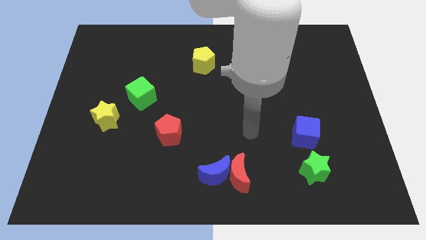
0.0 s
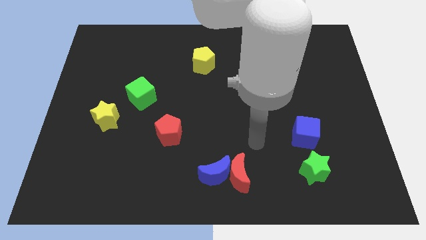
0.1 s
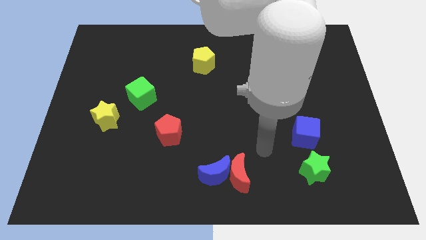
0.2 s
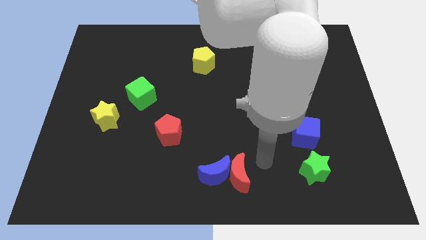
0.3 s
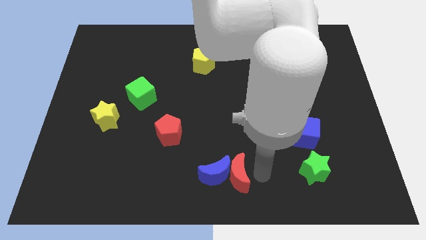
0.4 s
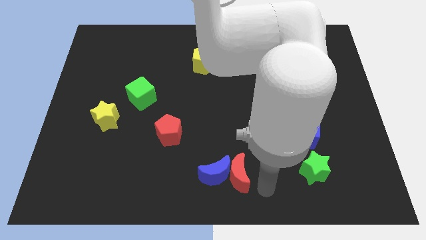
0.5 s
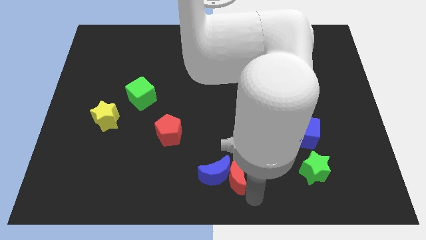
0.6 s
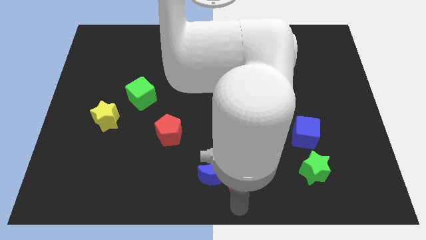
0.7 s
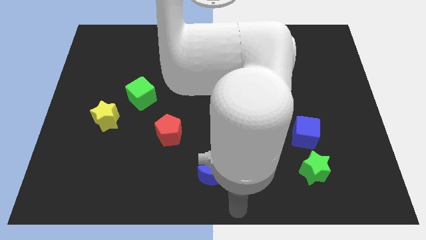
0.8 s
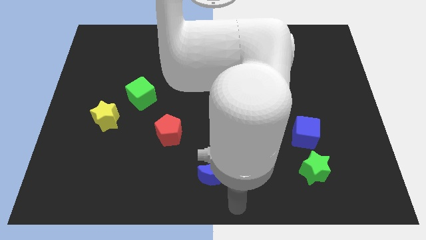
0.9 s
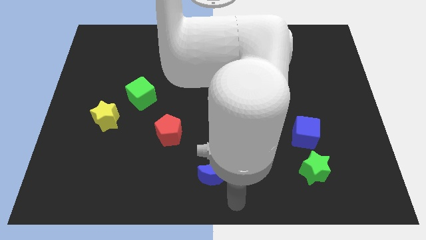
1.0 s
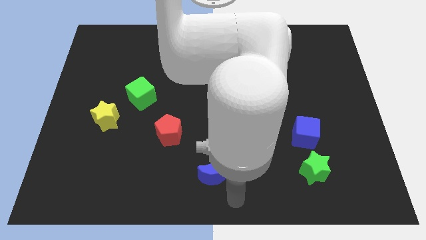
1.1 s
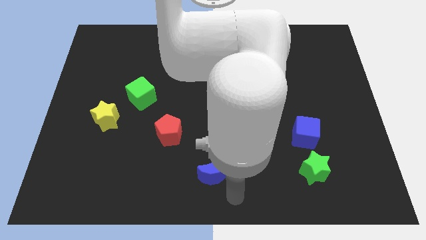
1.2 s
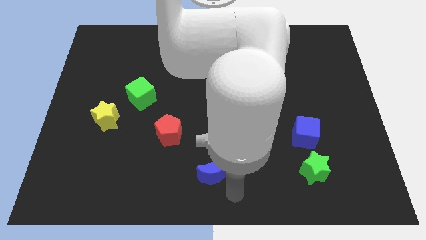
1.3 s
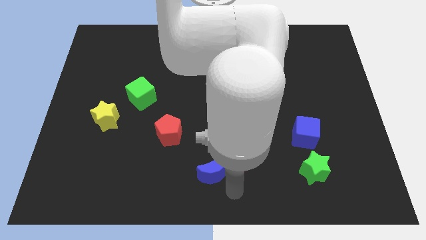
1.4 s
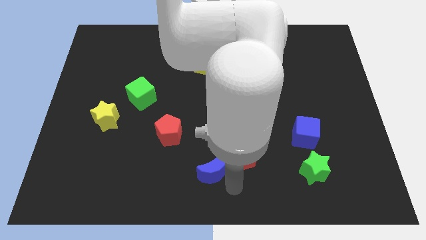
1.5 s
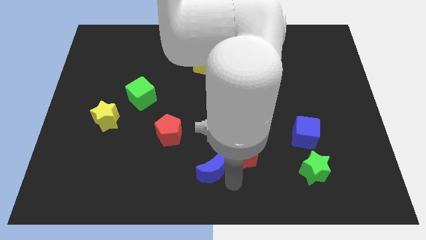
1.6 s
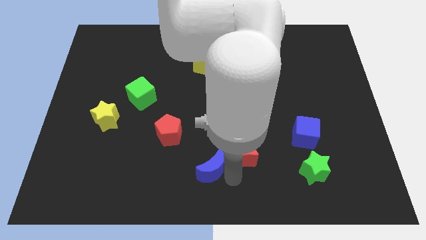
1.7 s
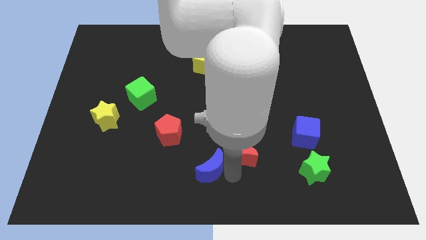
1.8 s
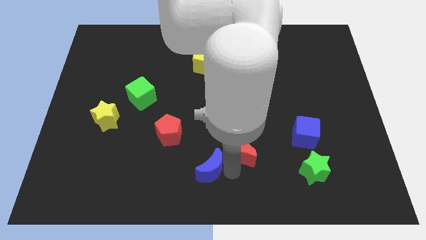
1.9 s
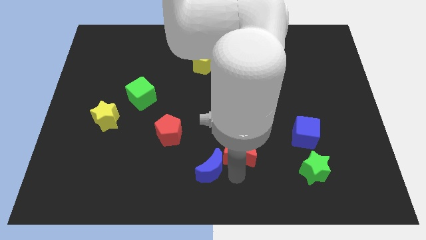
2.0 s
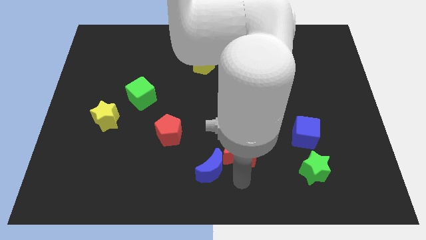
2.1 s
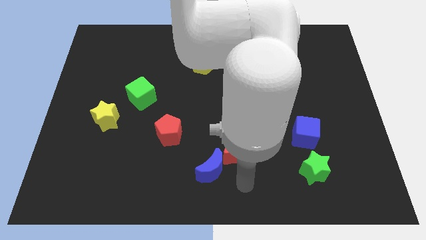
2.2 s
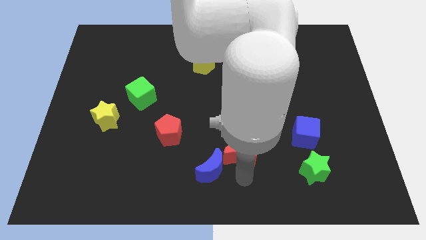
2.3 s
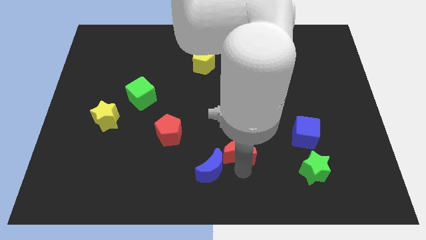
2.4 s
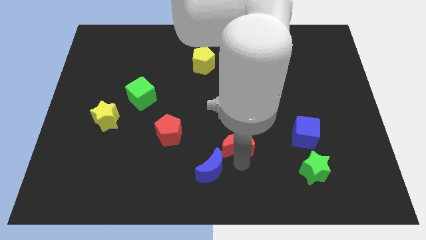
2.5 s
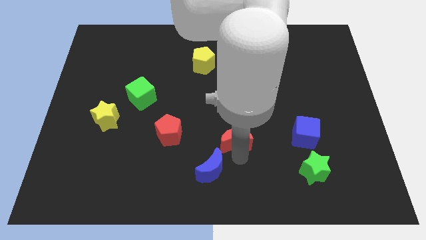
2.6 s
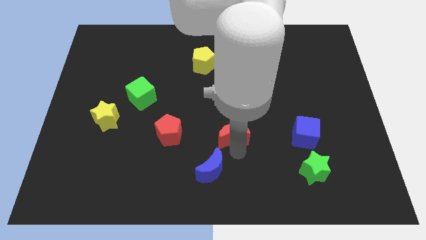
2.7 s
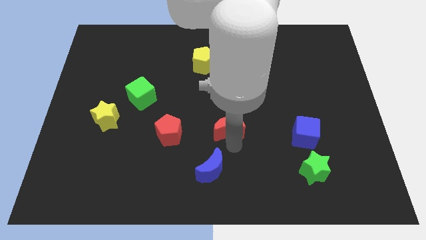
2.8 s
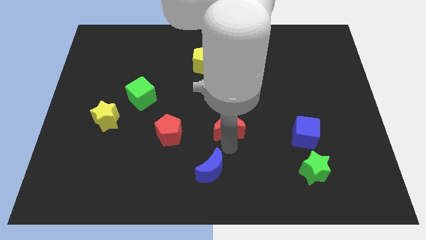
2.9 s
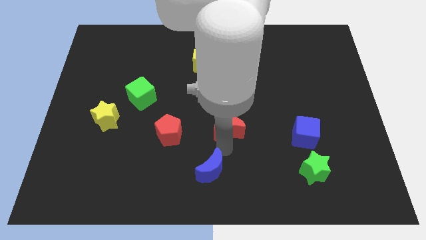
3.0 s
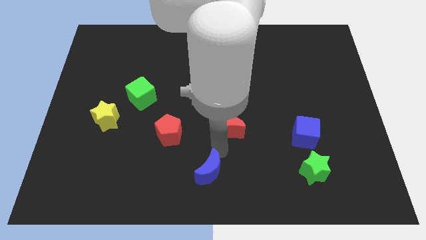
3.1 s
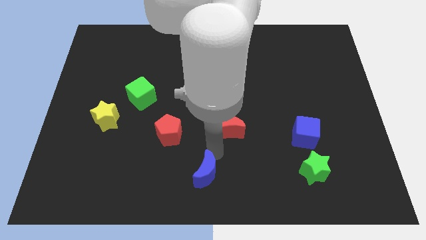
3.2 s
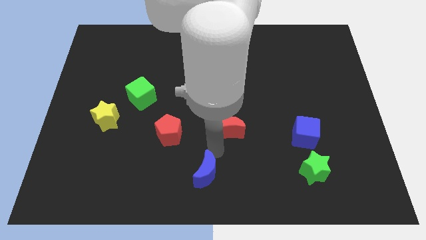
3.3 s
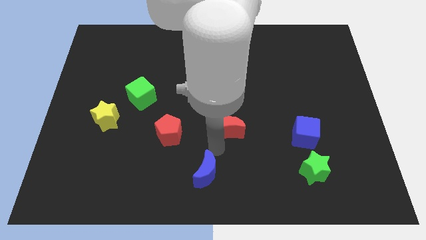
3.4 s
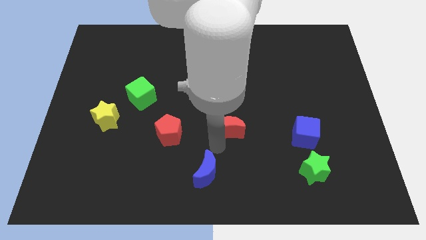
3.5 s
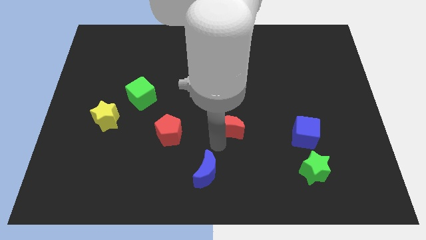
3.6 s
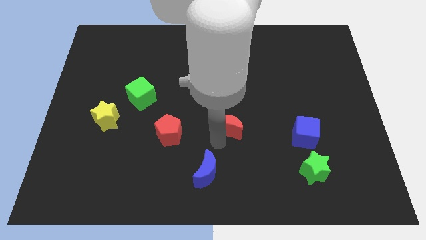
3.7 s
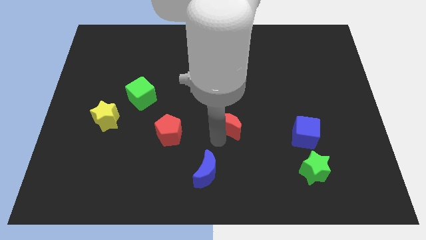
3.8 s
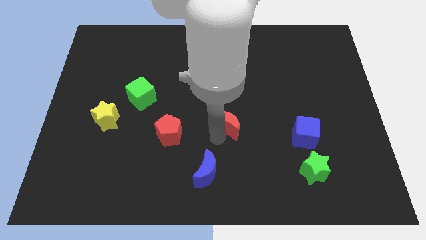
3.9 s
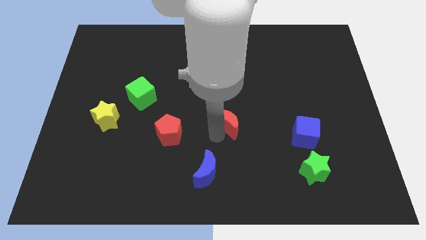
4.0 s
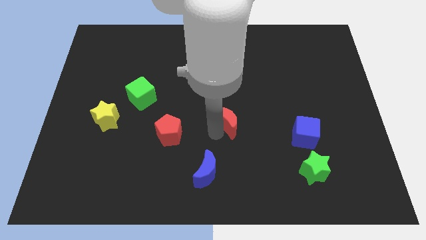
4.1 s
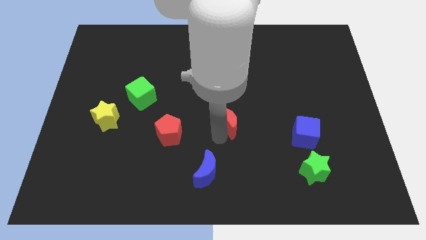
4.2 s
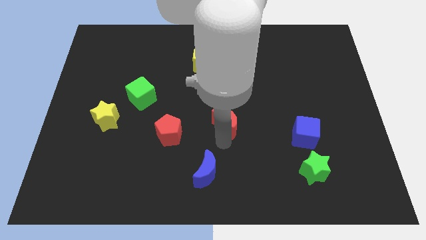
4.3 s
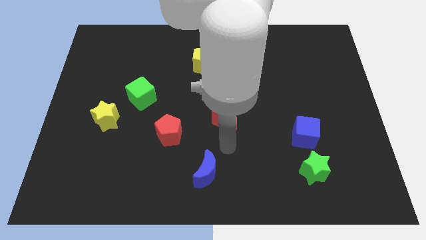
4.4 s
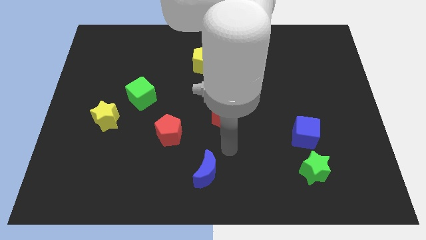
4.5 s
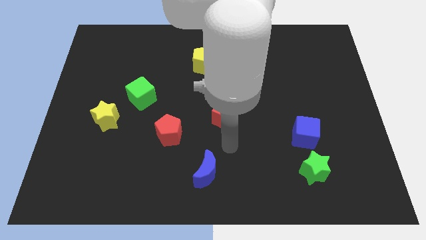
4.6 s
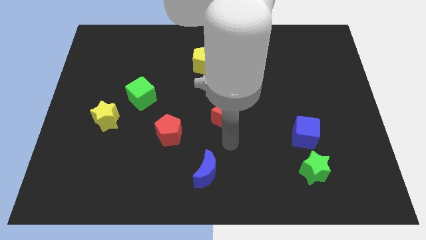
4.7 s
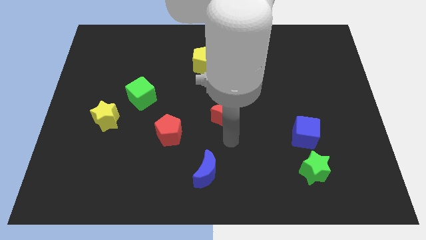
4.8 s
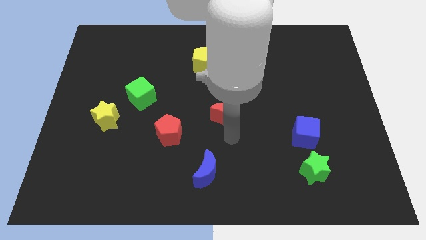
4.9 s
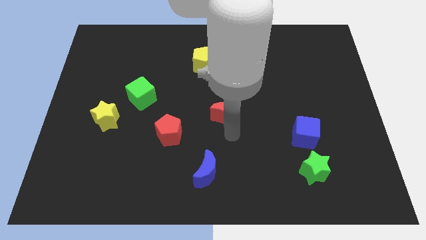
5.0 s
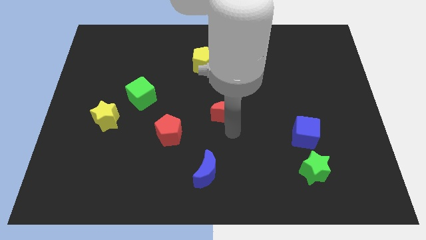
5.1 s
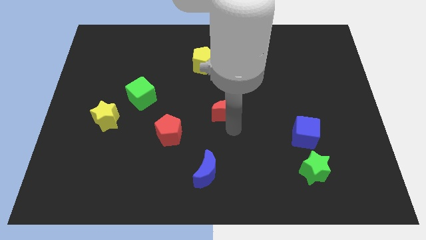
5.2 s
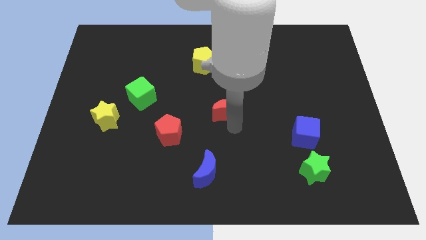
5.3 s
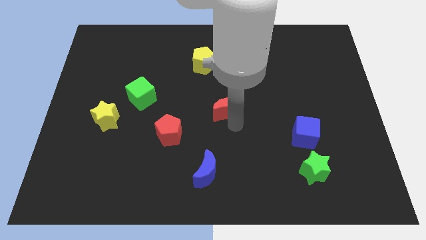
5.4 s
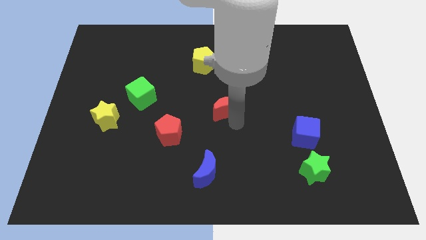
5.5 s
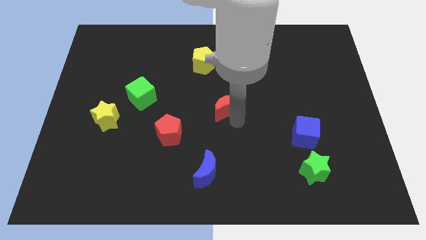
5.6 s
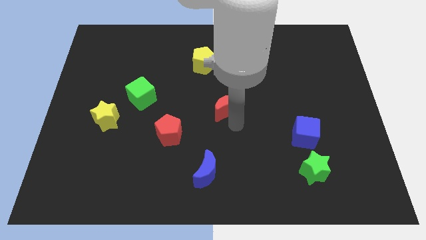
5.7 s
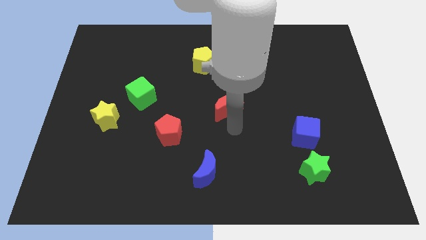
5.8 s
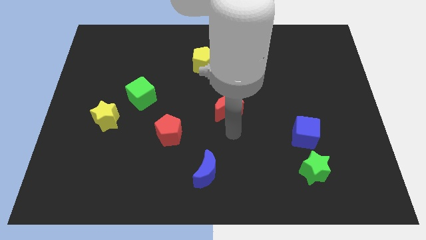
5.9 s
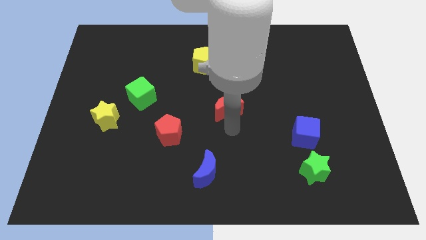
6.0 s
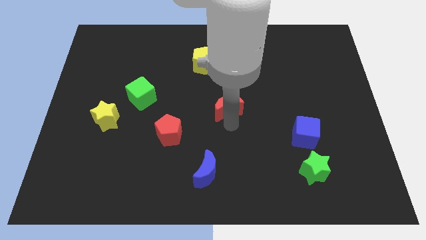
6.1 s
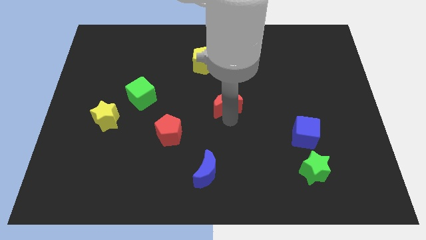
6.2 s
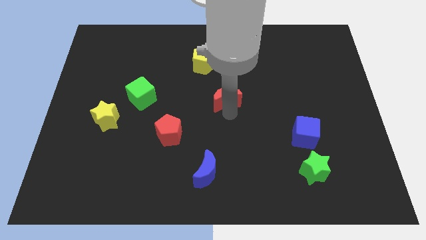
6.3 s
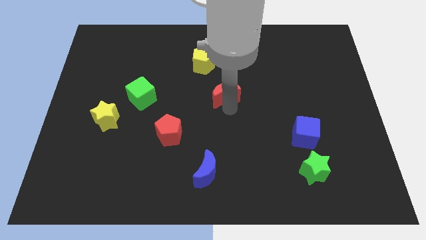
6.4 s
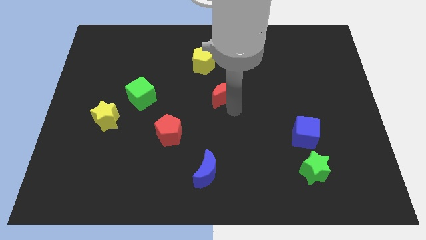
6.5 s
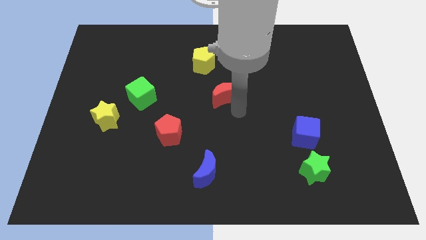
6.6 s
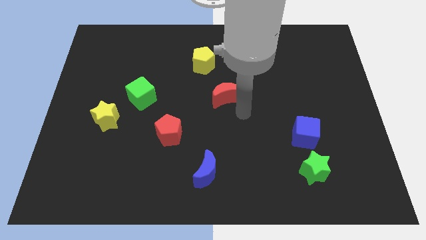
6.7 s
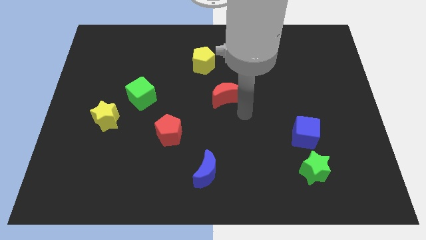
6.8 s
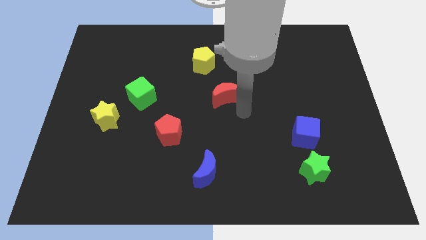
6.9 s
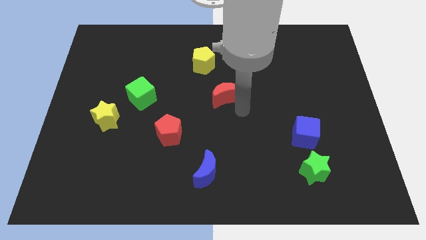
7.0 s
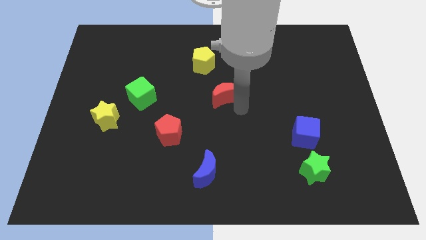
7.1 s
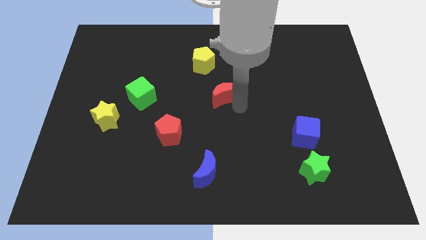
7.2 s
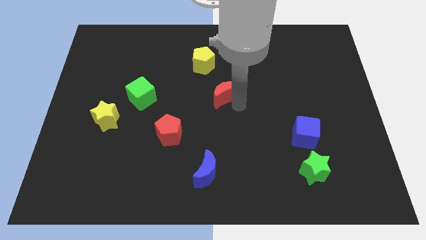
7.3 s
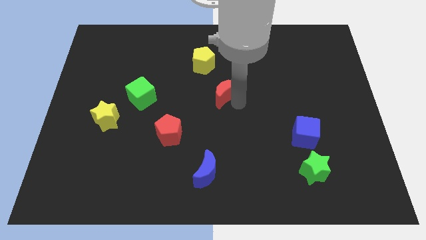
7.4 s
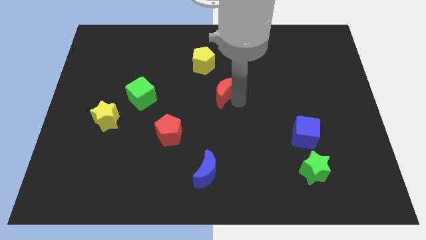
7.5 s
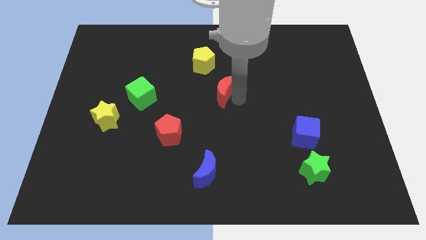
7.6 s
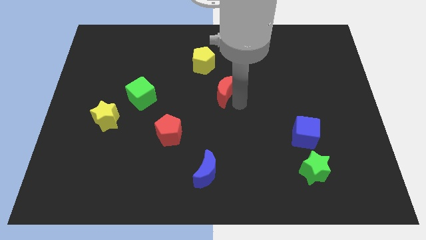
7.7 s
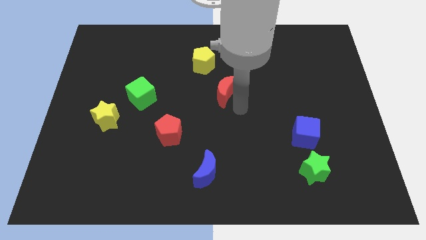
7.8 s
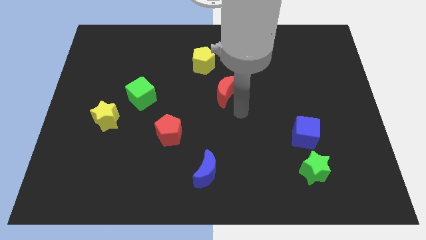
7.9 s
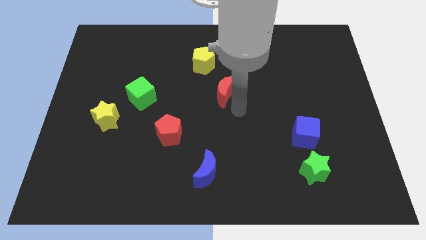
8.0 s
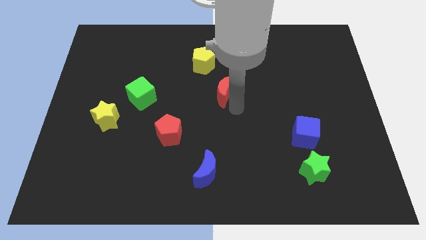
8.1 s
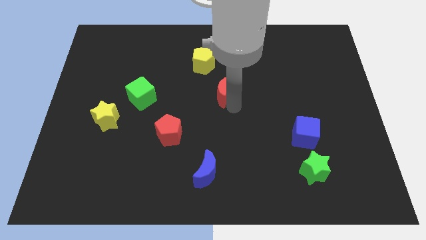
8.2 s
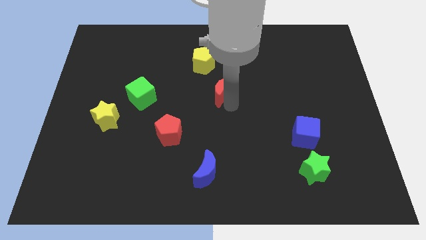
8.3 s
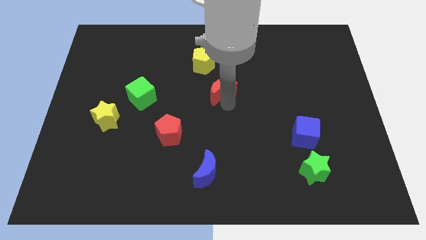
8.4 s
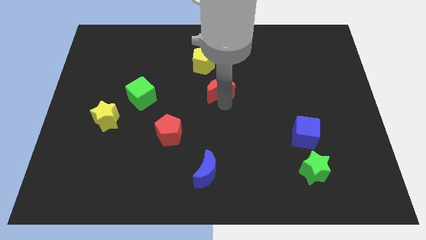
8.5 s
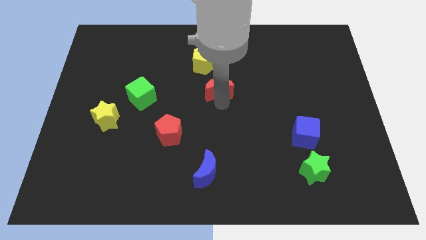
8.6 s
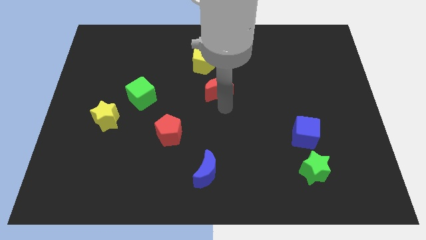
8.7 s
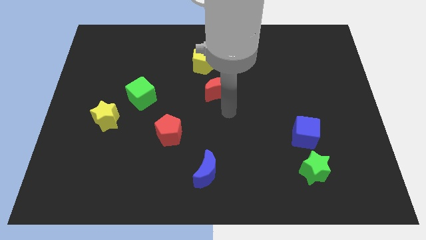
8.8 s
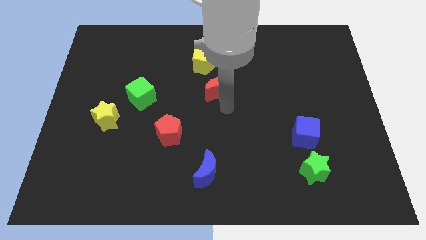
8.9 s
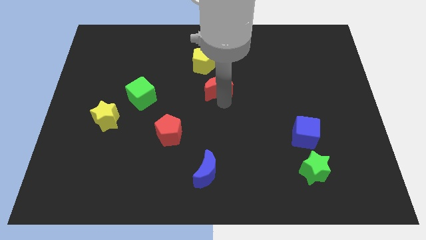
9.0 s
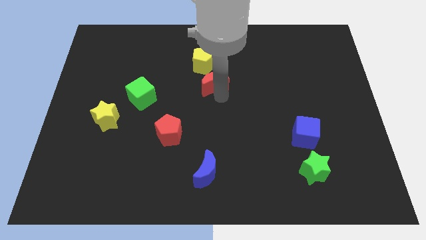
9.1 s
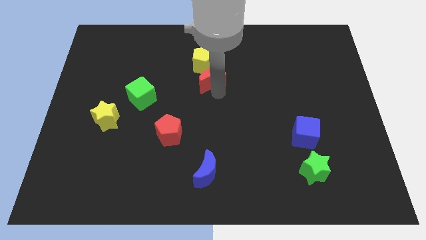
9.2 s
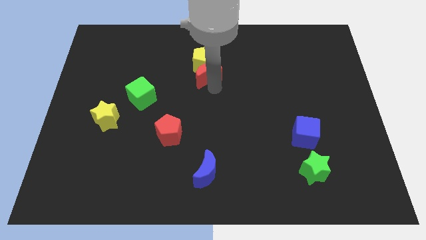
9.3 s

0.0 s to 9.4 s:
slide the red moon to the yellow pentagon
